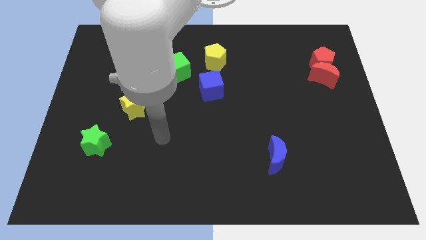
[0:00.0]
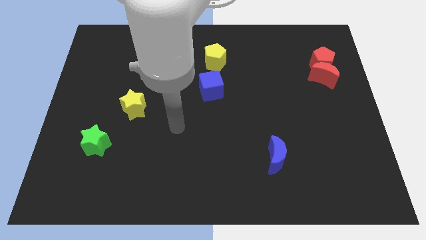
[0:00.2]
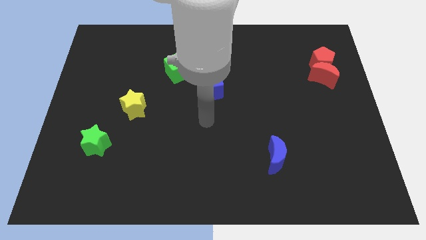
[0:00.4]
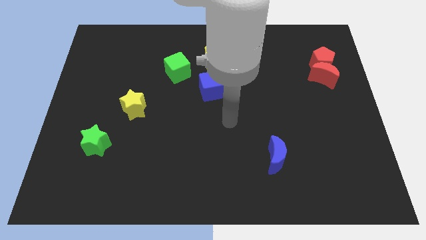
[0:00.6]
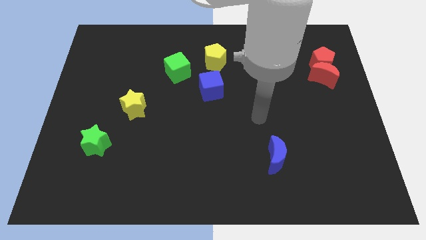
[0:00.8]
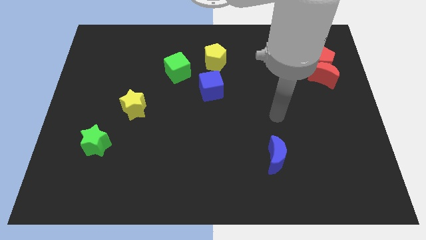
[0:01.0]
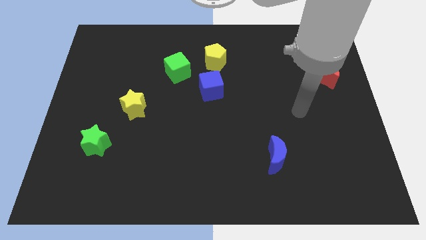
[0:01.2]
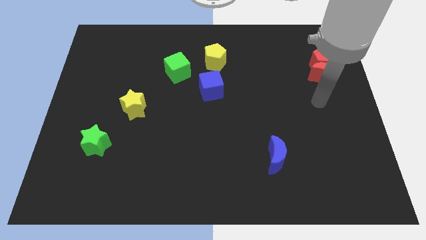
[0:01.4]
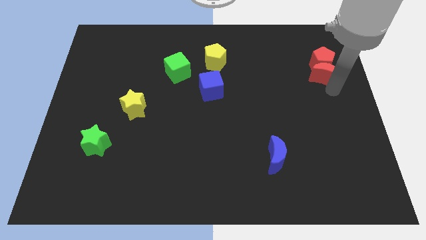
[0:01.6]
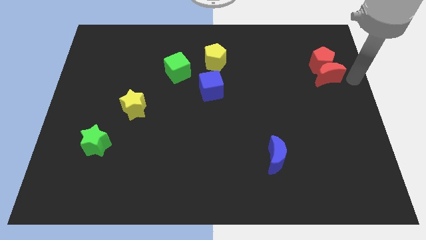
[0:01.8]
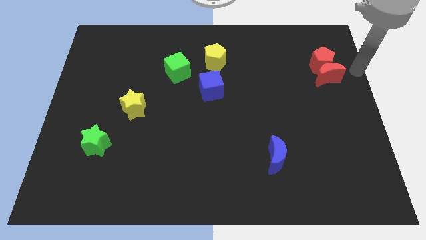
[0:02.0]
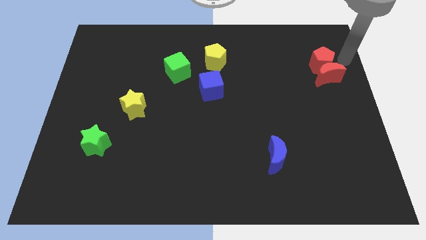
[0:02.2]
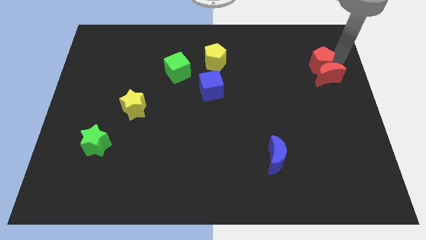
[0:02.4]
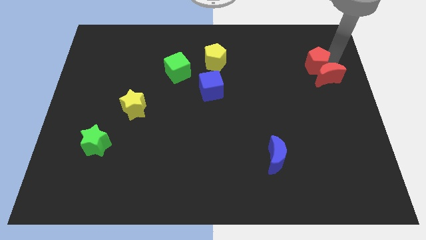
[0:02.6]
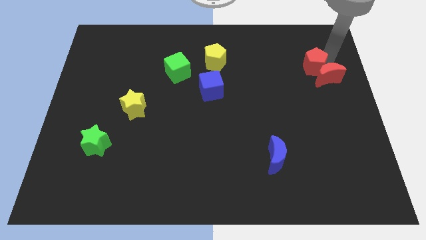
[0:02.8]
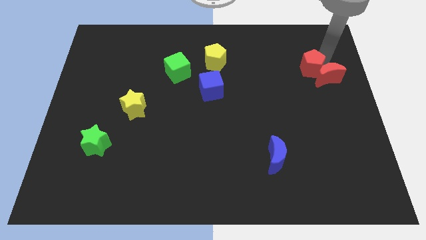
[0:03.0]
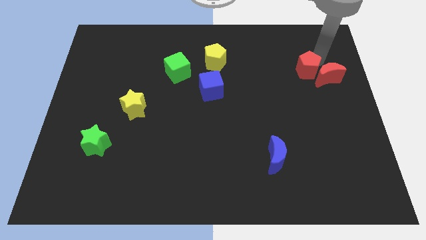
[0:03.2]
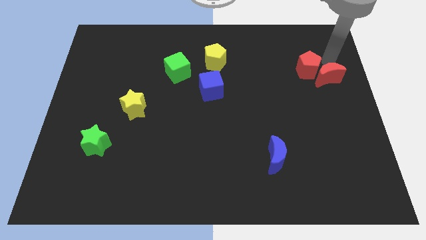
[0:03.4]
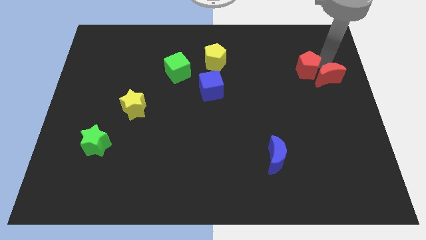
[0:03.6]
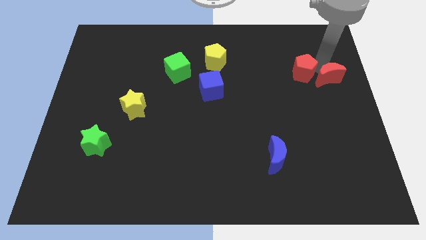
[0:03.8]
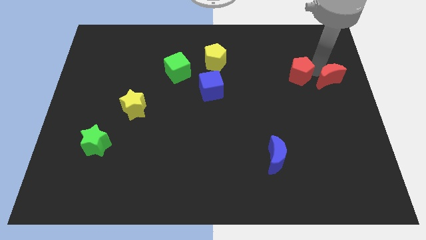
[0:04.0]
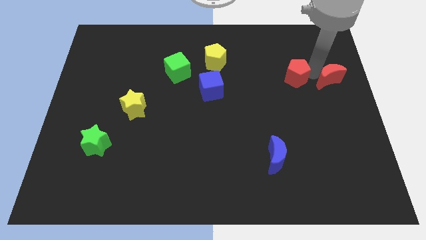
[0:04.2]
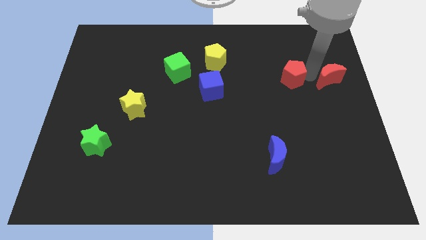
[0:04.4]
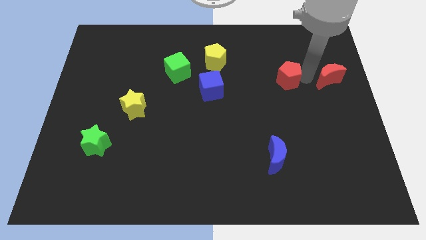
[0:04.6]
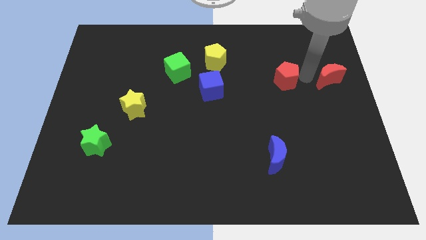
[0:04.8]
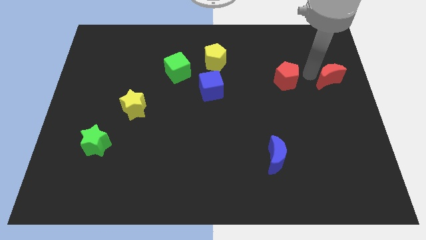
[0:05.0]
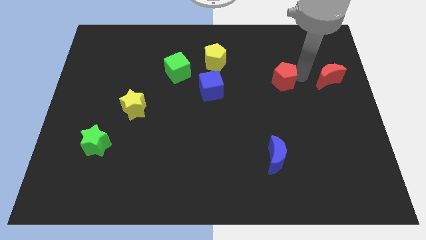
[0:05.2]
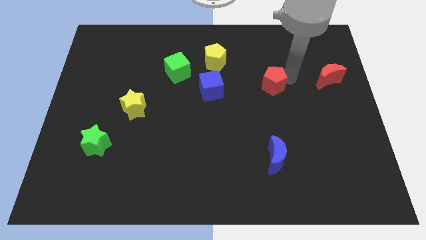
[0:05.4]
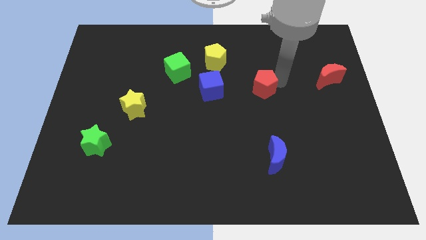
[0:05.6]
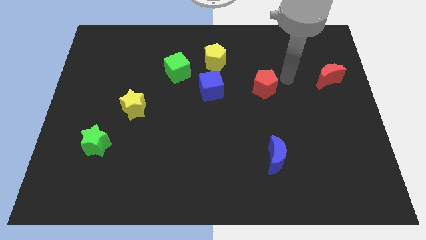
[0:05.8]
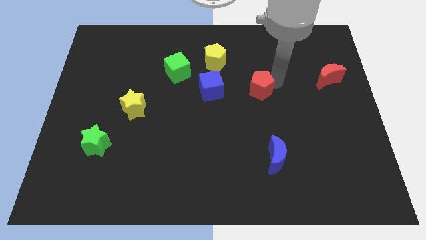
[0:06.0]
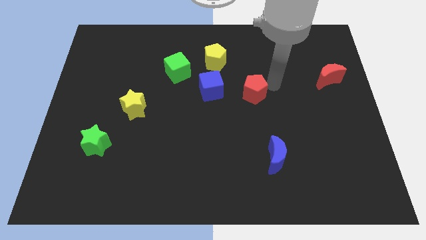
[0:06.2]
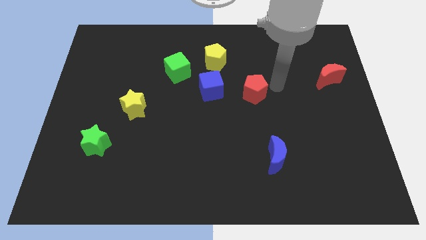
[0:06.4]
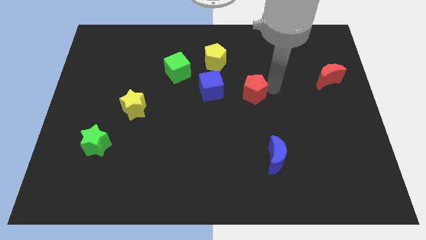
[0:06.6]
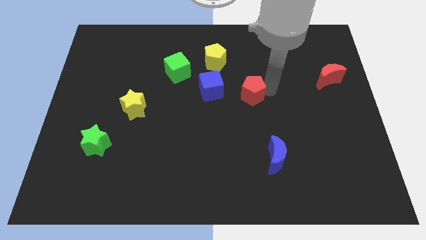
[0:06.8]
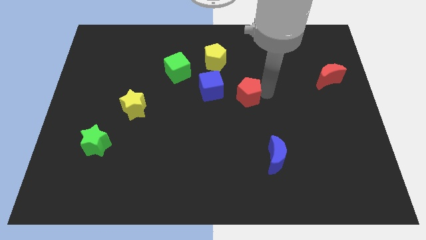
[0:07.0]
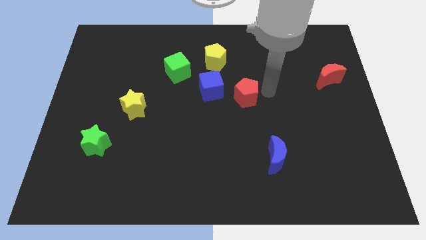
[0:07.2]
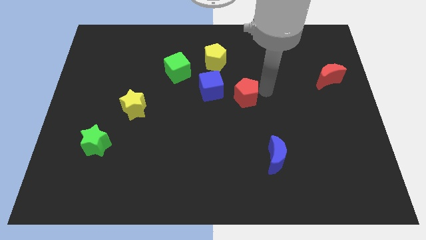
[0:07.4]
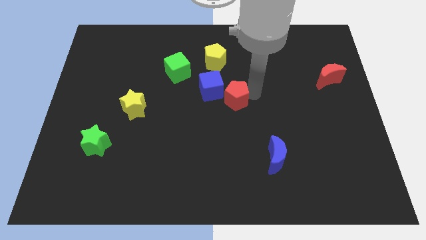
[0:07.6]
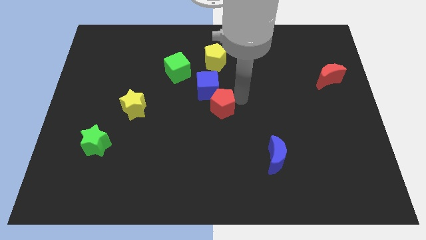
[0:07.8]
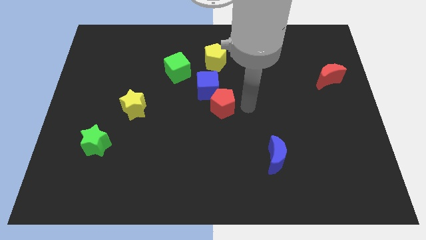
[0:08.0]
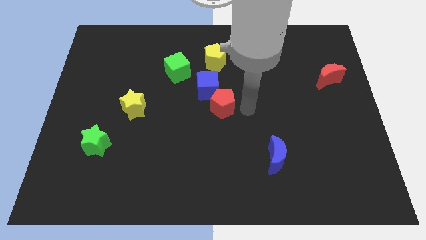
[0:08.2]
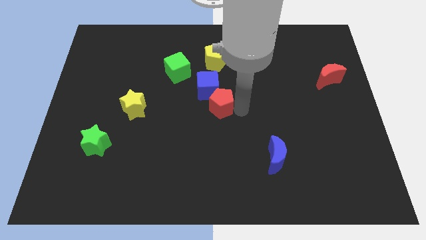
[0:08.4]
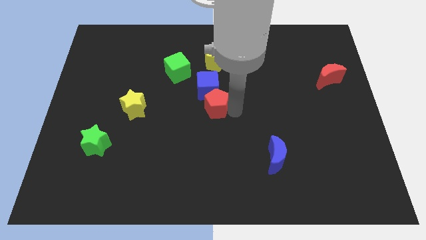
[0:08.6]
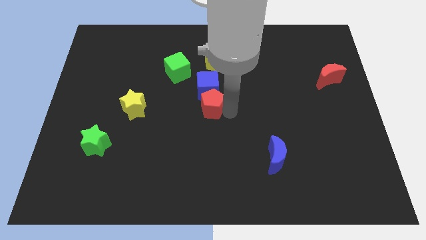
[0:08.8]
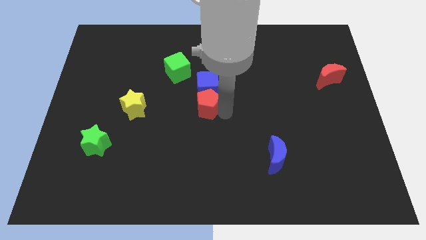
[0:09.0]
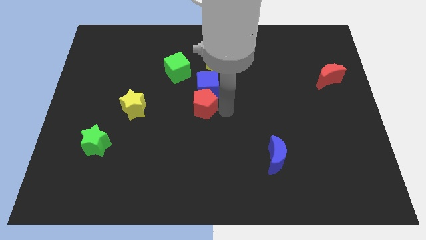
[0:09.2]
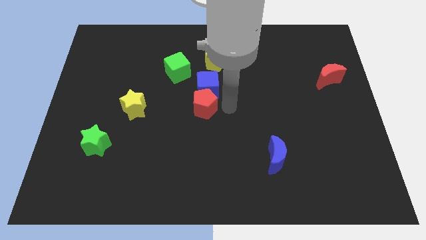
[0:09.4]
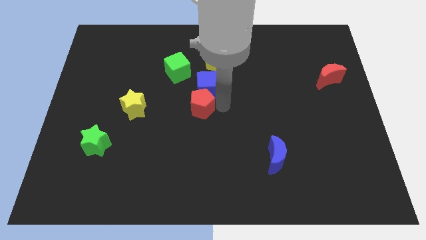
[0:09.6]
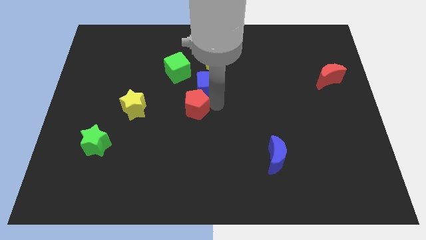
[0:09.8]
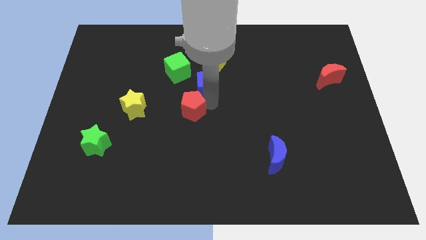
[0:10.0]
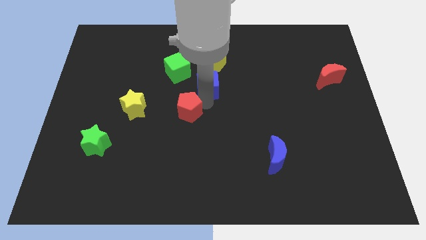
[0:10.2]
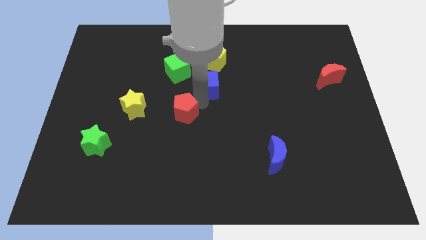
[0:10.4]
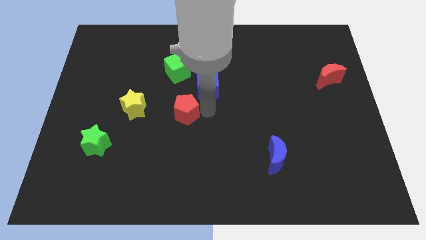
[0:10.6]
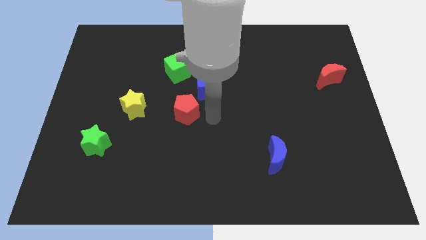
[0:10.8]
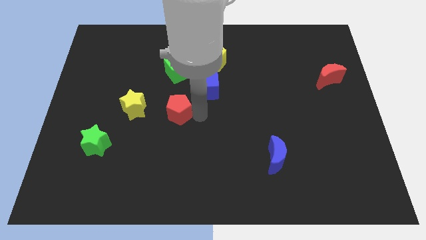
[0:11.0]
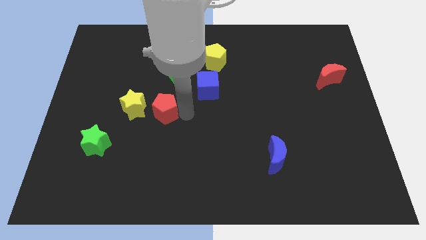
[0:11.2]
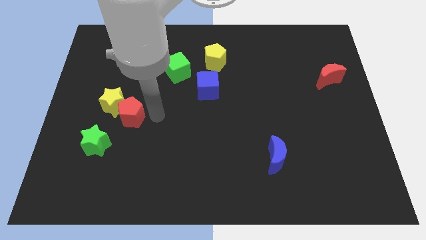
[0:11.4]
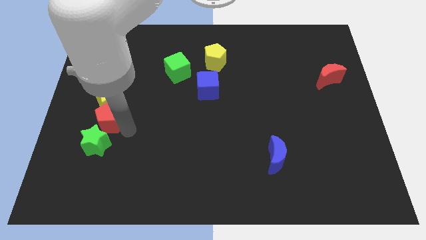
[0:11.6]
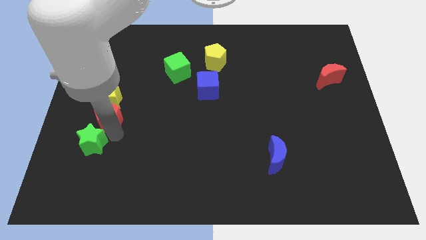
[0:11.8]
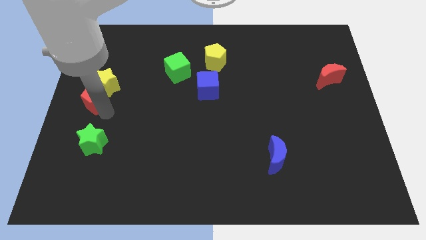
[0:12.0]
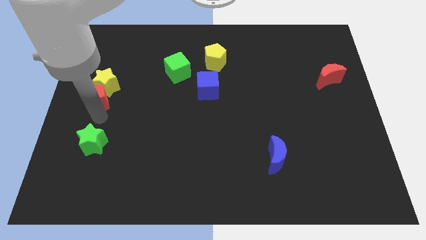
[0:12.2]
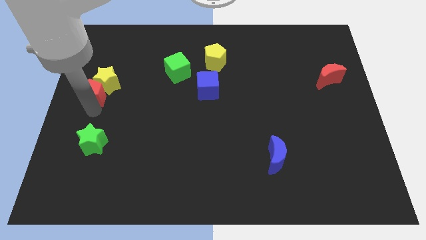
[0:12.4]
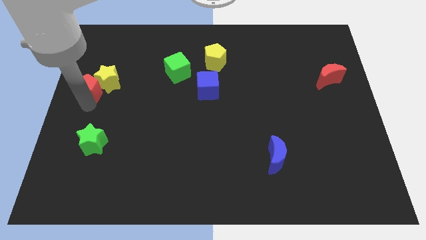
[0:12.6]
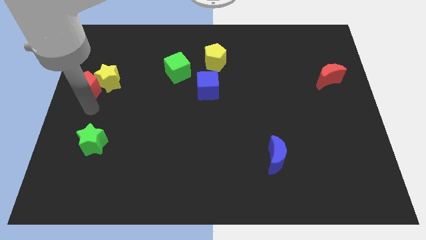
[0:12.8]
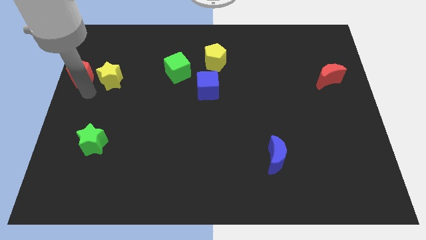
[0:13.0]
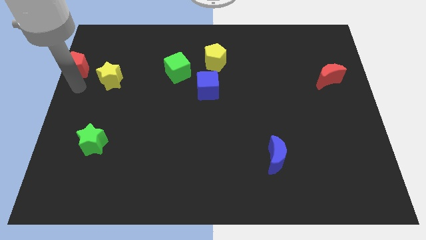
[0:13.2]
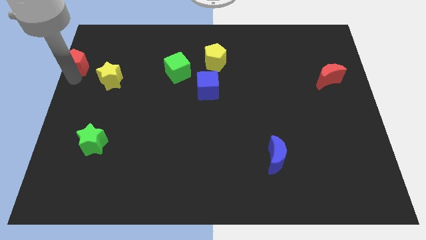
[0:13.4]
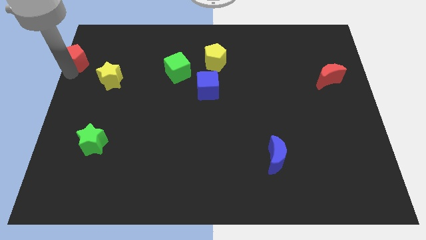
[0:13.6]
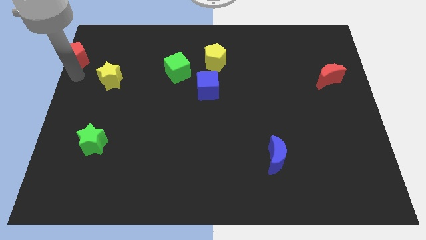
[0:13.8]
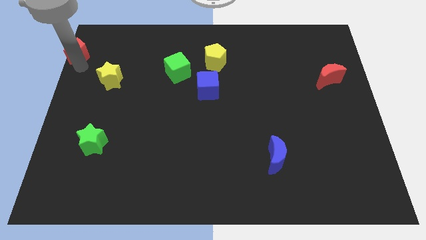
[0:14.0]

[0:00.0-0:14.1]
slide the red pentagon to the top left corner
